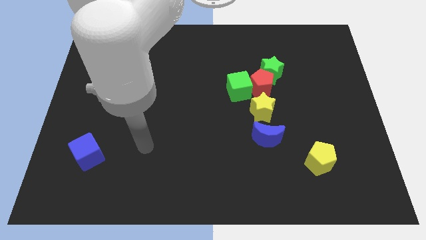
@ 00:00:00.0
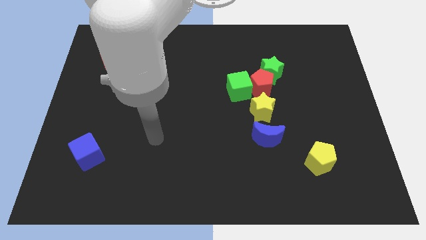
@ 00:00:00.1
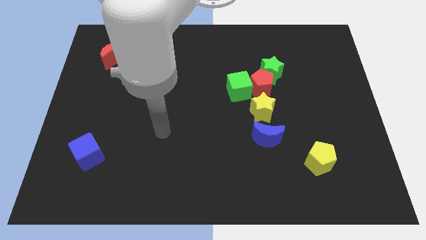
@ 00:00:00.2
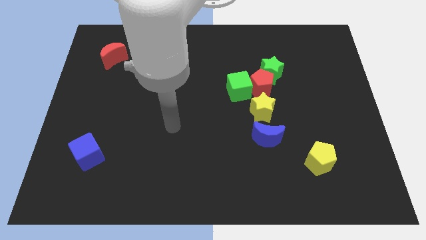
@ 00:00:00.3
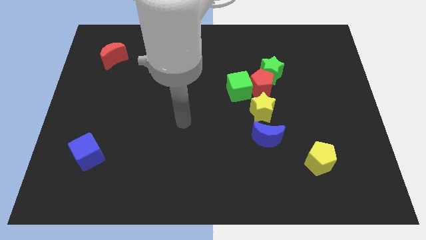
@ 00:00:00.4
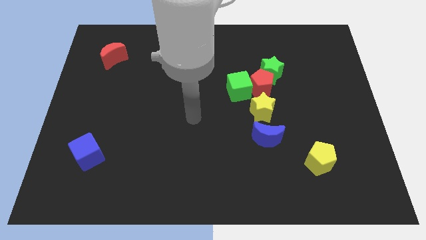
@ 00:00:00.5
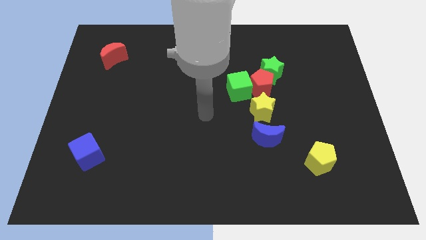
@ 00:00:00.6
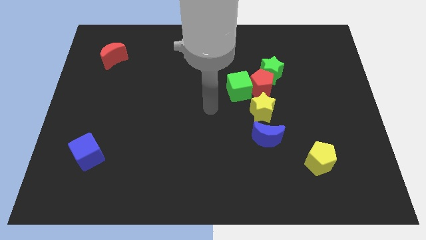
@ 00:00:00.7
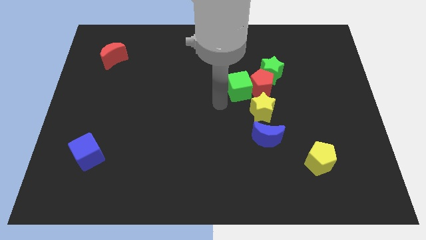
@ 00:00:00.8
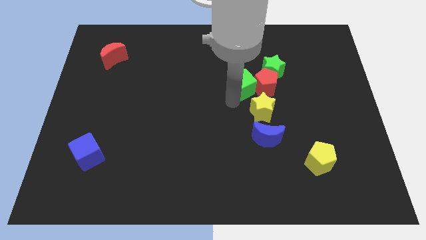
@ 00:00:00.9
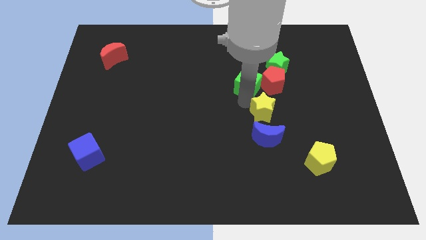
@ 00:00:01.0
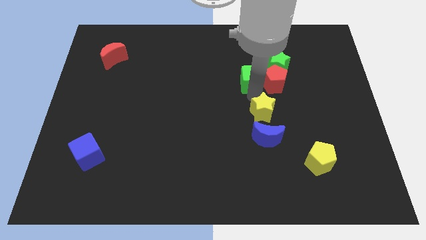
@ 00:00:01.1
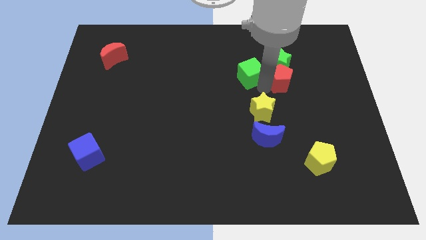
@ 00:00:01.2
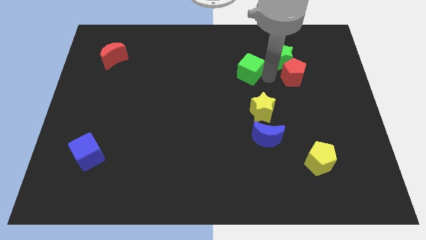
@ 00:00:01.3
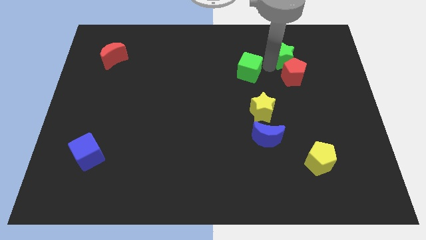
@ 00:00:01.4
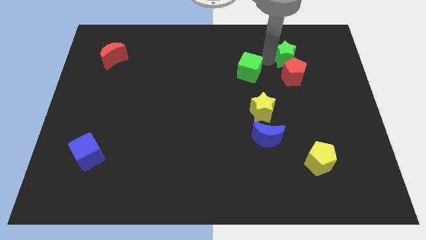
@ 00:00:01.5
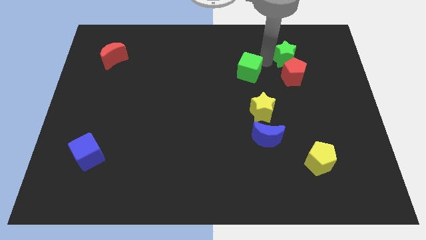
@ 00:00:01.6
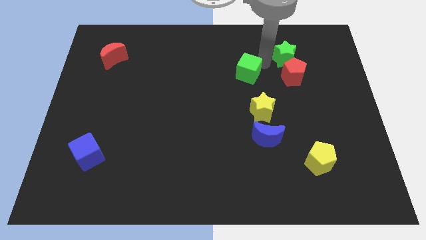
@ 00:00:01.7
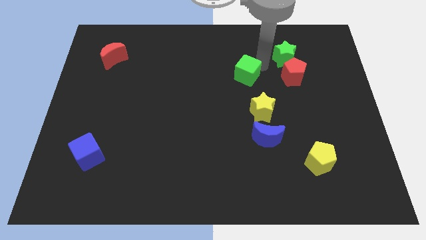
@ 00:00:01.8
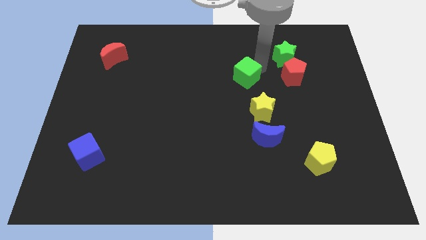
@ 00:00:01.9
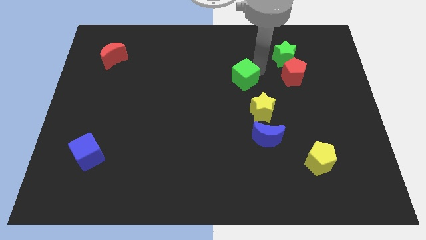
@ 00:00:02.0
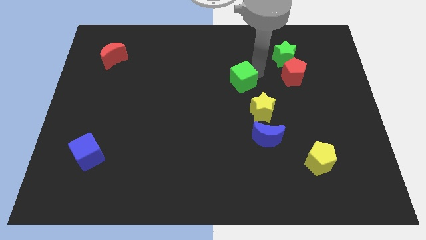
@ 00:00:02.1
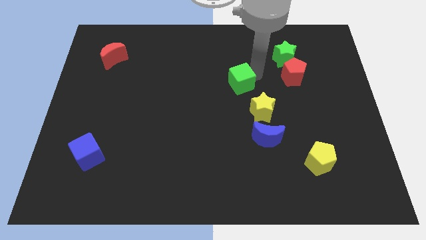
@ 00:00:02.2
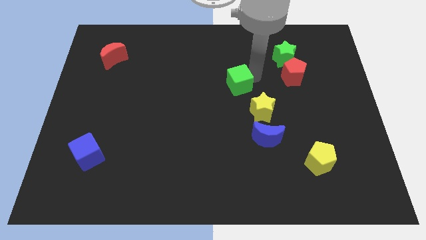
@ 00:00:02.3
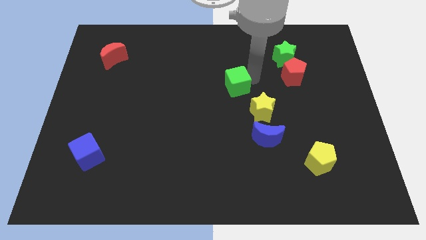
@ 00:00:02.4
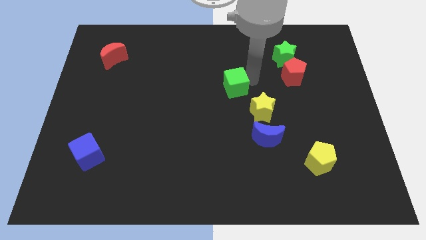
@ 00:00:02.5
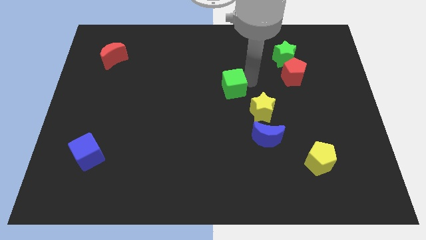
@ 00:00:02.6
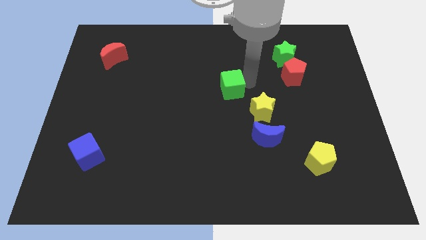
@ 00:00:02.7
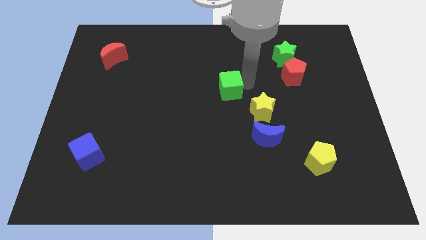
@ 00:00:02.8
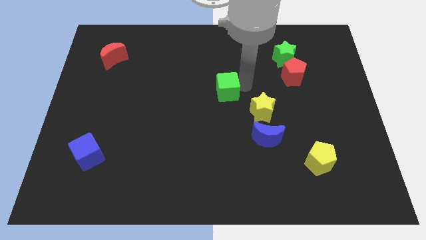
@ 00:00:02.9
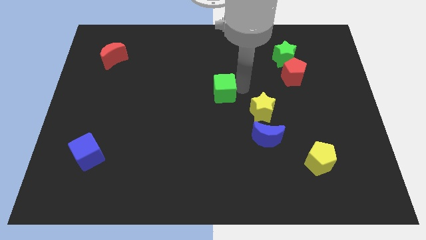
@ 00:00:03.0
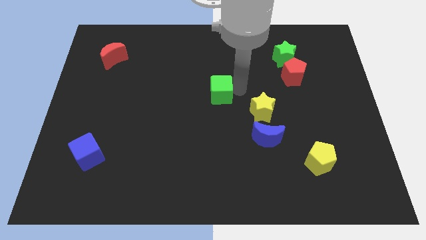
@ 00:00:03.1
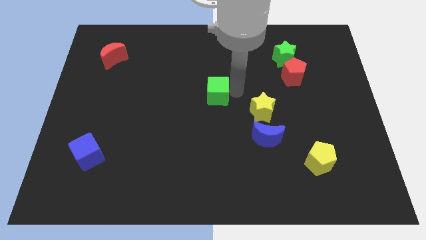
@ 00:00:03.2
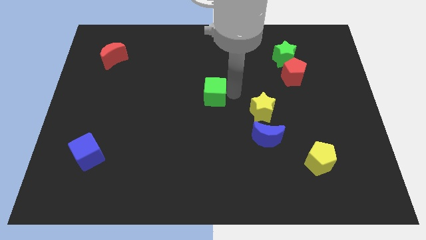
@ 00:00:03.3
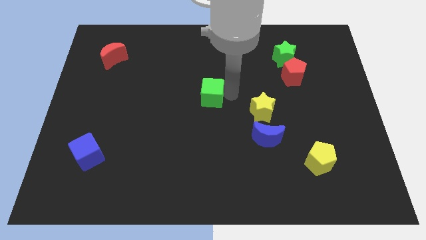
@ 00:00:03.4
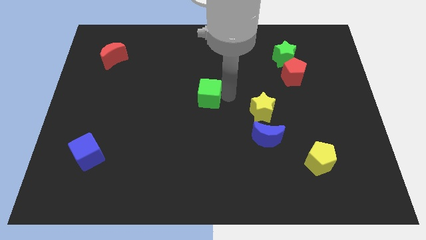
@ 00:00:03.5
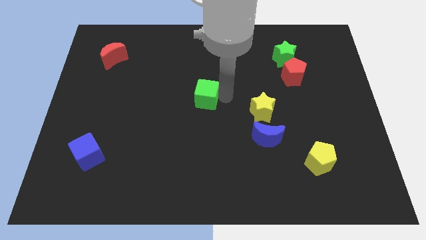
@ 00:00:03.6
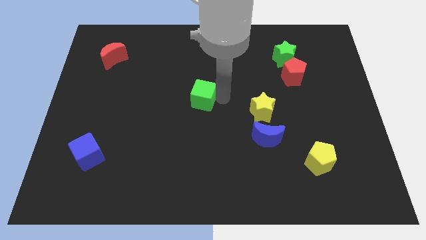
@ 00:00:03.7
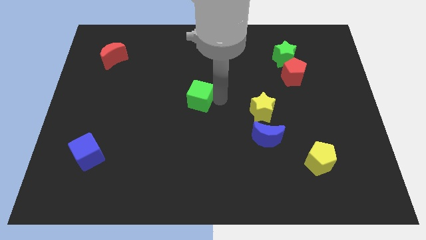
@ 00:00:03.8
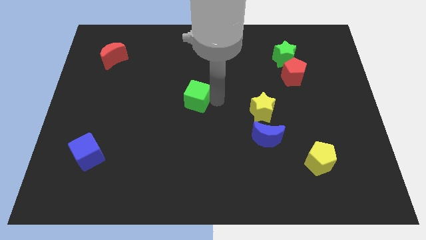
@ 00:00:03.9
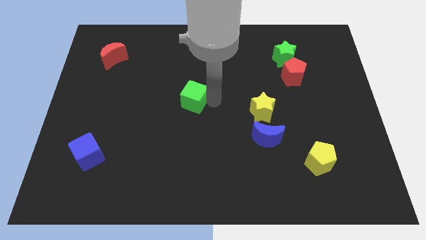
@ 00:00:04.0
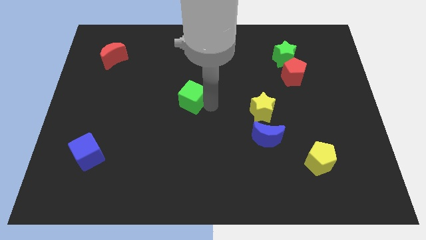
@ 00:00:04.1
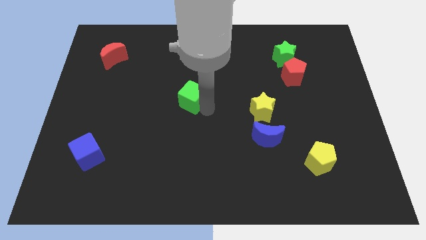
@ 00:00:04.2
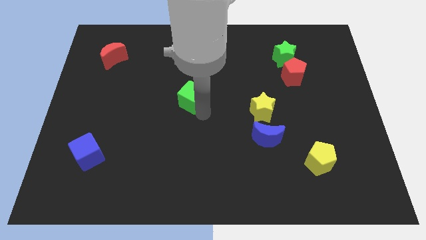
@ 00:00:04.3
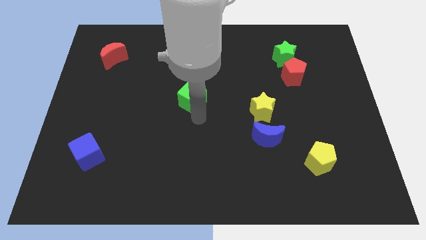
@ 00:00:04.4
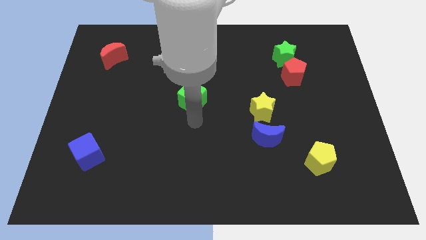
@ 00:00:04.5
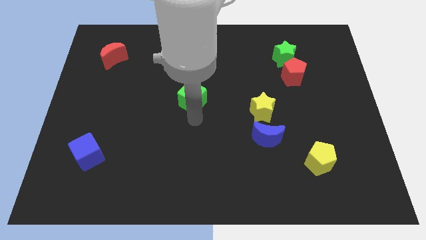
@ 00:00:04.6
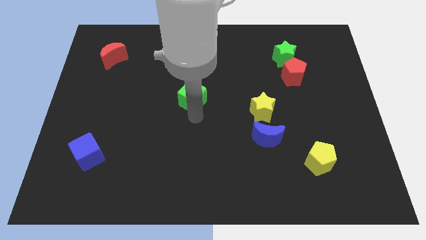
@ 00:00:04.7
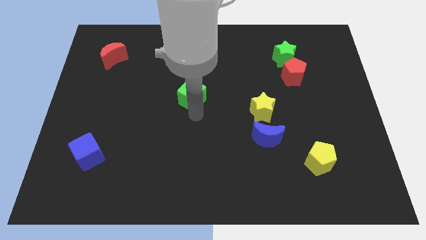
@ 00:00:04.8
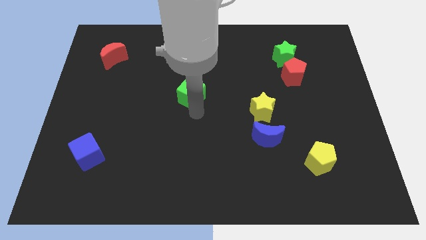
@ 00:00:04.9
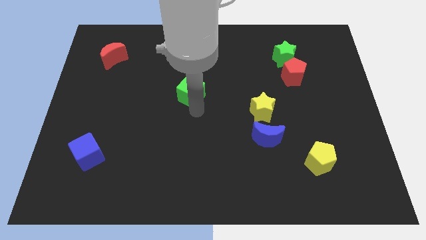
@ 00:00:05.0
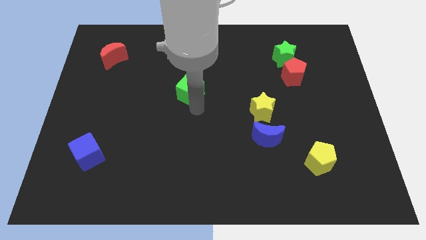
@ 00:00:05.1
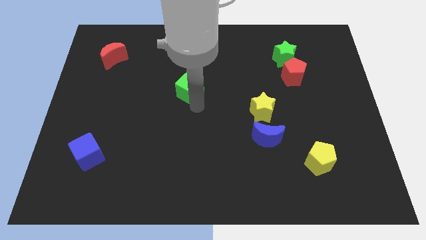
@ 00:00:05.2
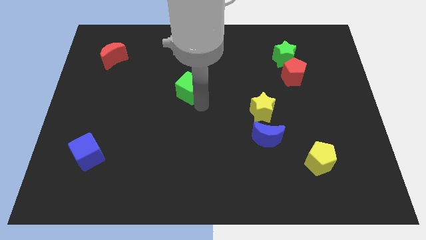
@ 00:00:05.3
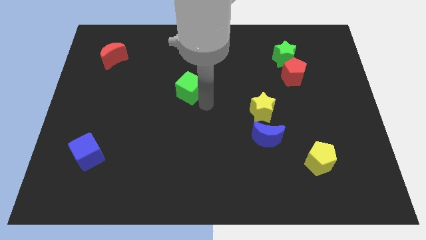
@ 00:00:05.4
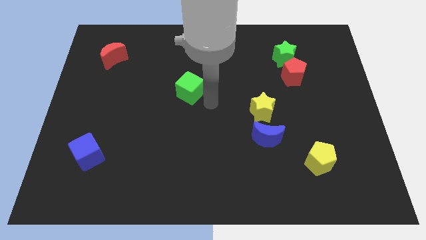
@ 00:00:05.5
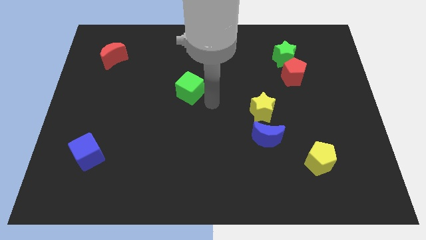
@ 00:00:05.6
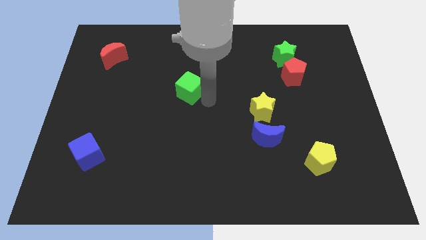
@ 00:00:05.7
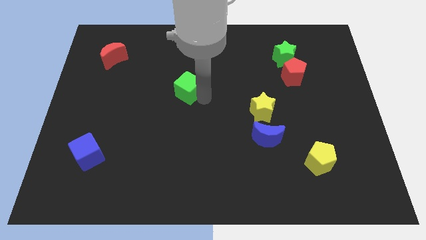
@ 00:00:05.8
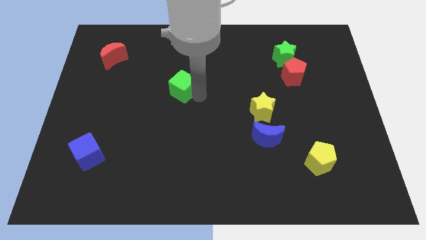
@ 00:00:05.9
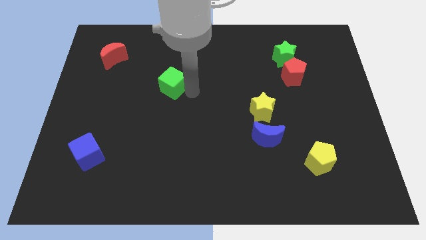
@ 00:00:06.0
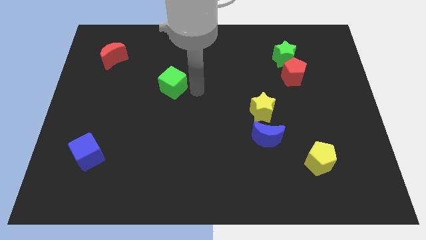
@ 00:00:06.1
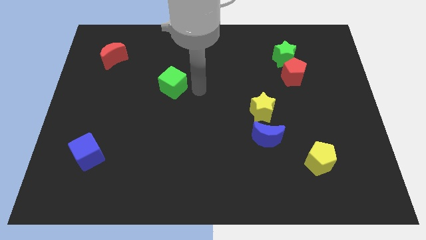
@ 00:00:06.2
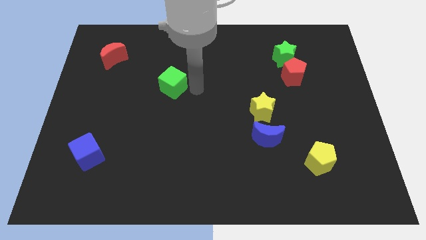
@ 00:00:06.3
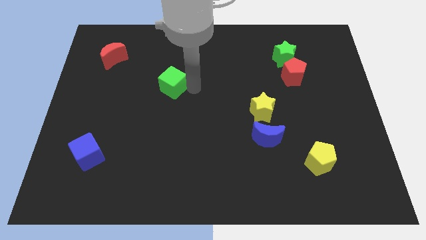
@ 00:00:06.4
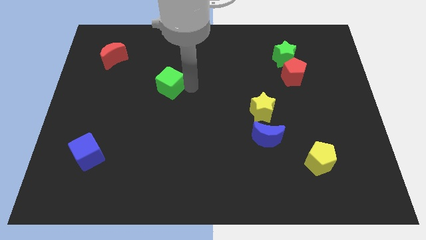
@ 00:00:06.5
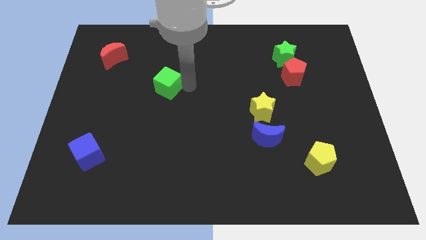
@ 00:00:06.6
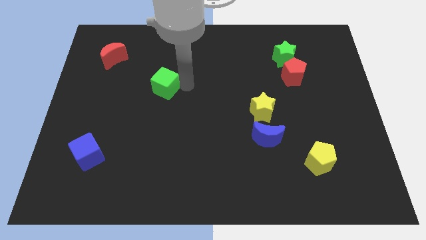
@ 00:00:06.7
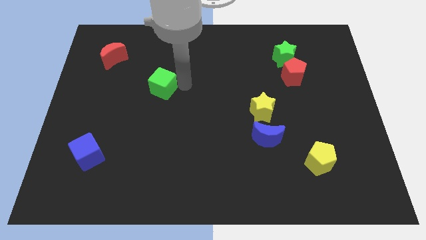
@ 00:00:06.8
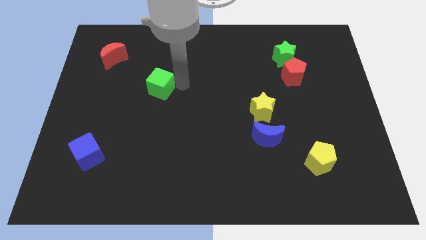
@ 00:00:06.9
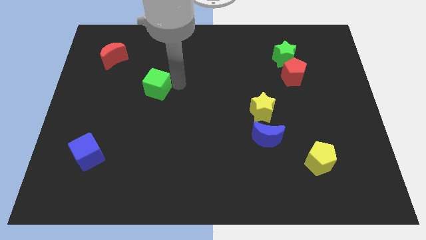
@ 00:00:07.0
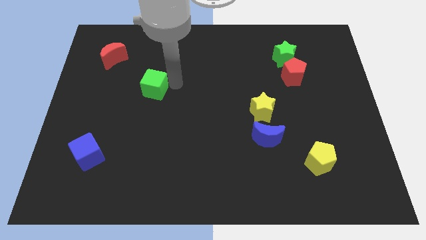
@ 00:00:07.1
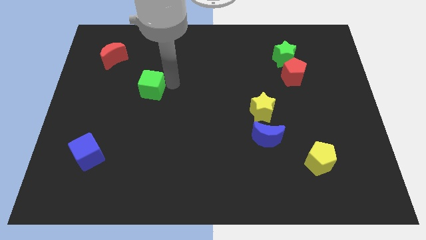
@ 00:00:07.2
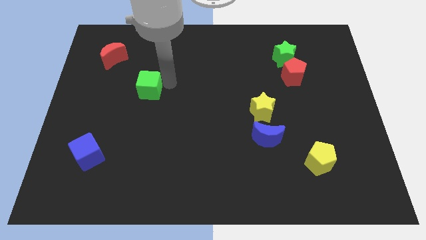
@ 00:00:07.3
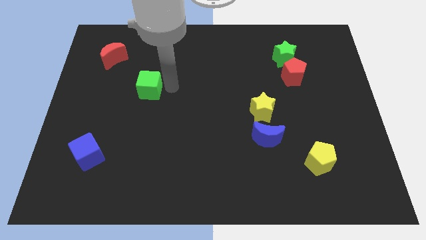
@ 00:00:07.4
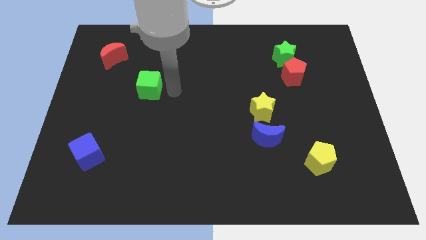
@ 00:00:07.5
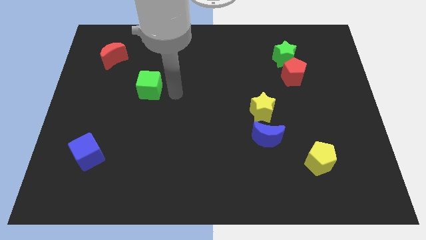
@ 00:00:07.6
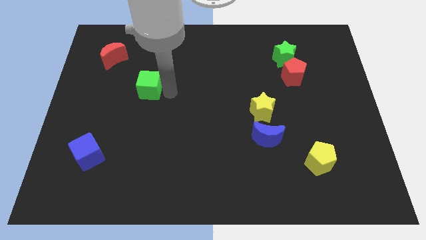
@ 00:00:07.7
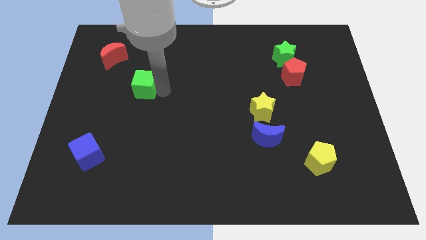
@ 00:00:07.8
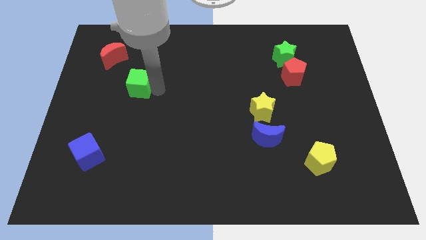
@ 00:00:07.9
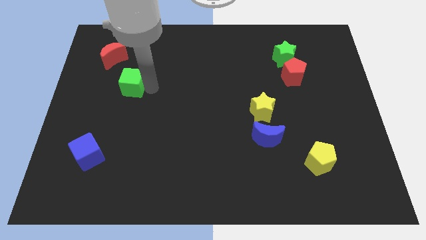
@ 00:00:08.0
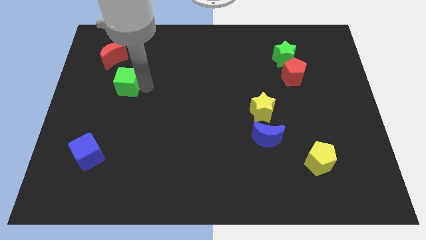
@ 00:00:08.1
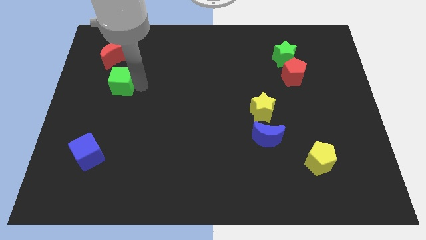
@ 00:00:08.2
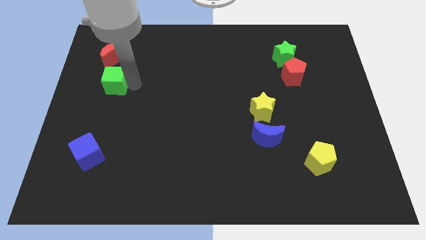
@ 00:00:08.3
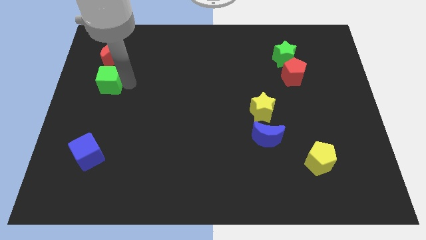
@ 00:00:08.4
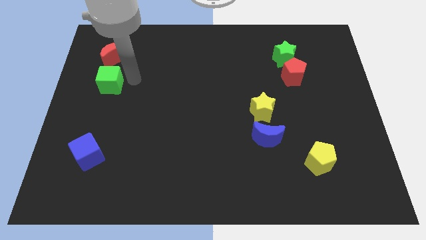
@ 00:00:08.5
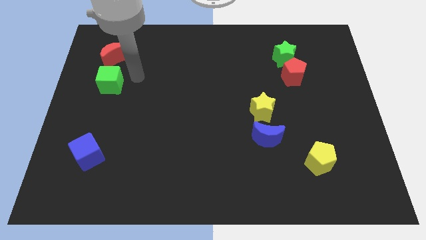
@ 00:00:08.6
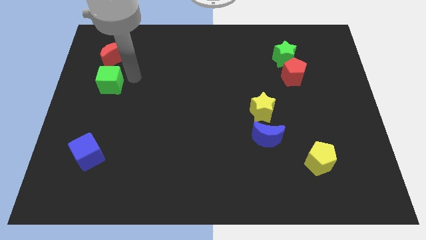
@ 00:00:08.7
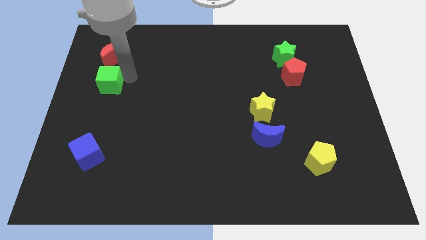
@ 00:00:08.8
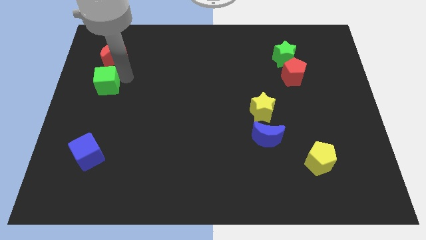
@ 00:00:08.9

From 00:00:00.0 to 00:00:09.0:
move the green cube to the left side of the board
